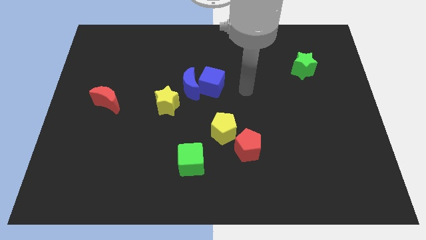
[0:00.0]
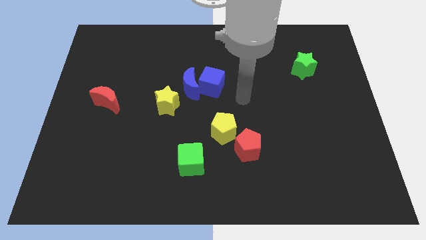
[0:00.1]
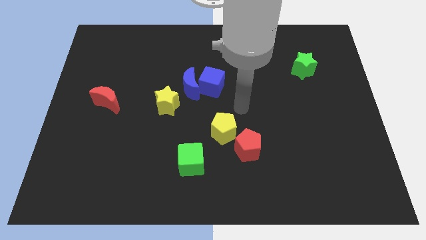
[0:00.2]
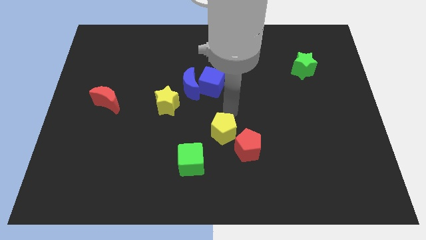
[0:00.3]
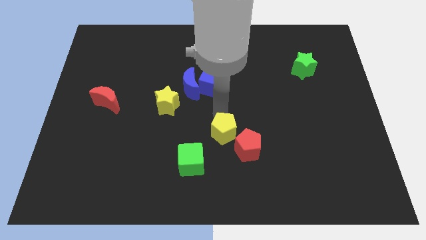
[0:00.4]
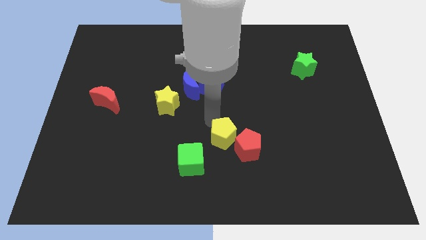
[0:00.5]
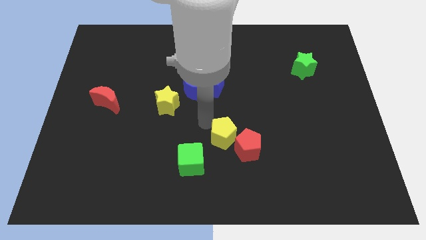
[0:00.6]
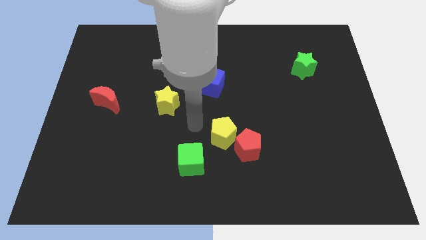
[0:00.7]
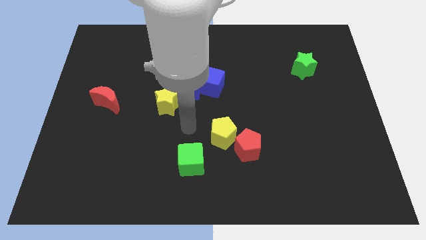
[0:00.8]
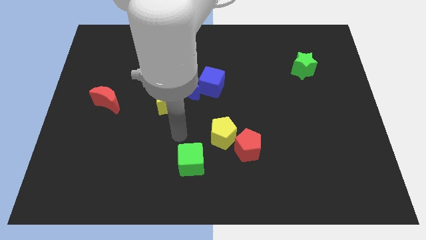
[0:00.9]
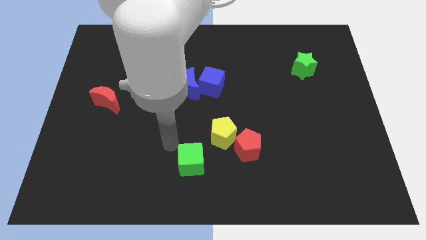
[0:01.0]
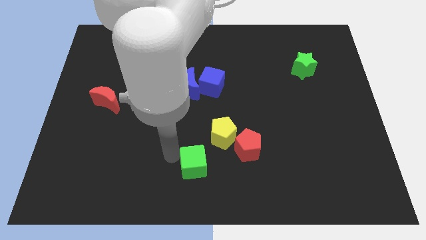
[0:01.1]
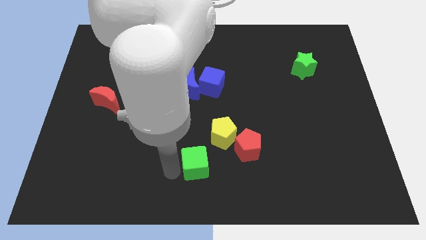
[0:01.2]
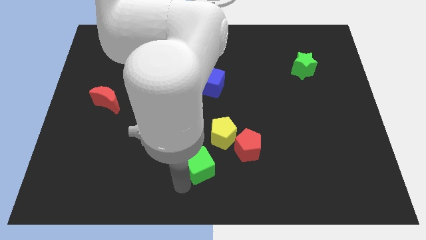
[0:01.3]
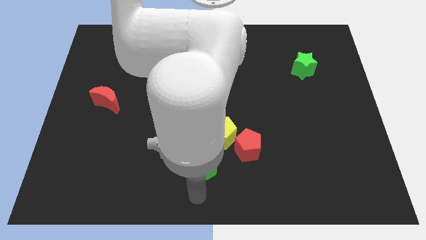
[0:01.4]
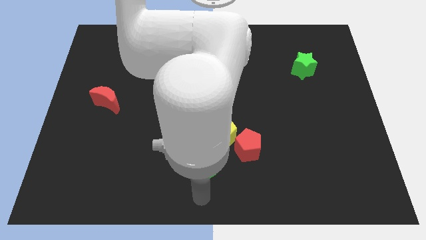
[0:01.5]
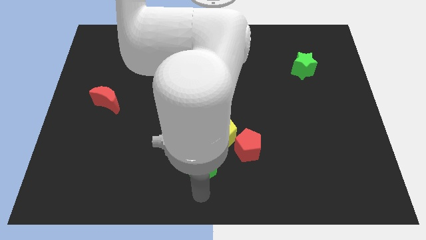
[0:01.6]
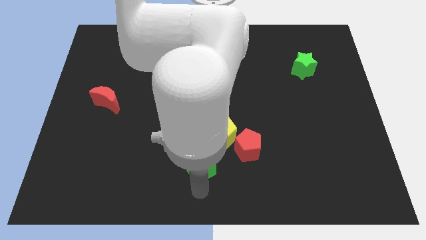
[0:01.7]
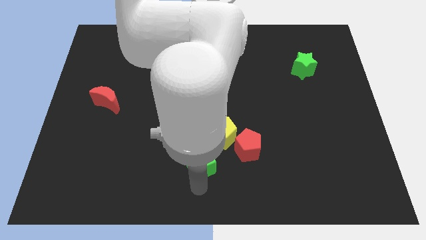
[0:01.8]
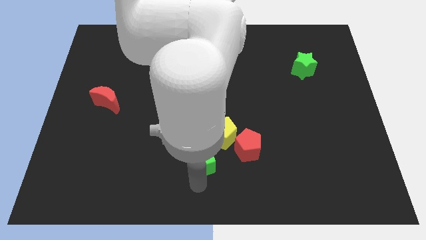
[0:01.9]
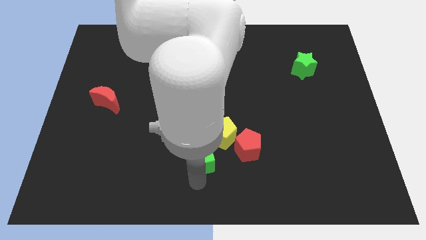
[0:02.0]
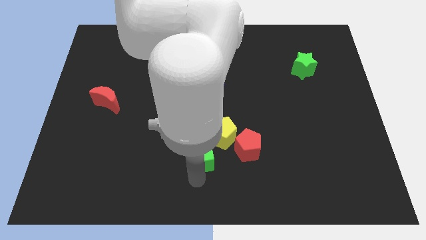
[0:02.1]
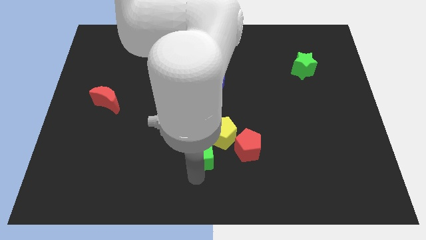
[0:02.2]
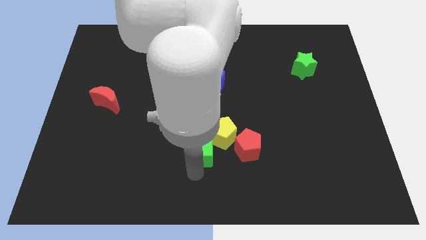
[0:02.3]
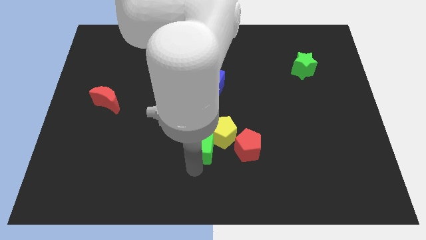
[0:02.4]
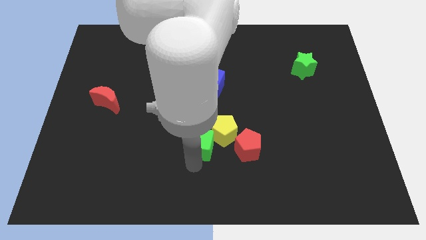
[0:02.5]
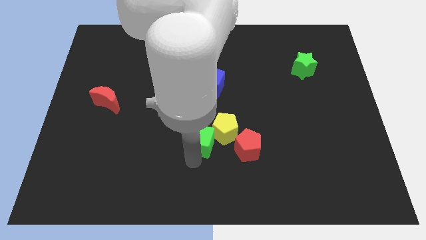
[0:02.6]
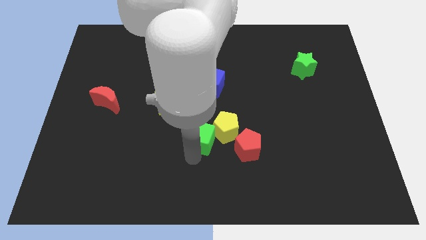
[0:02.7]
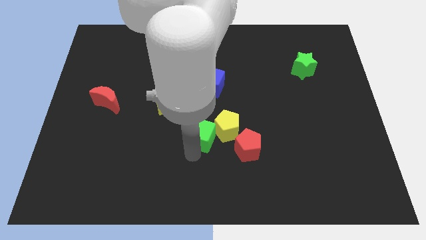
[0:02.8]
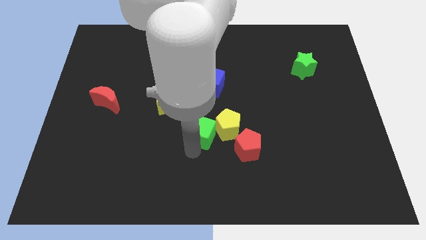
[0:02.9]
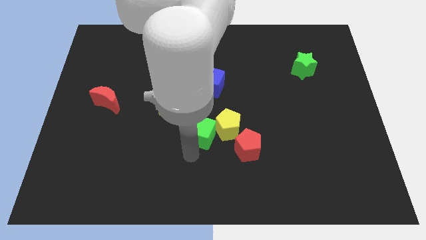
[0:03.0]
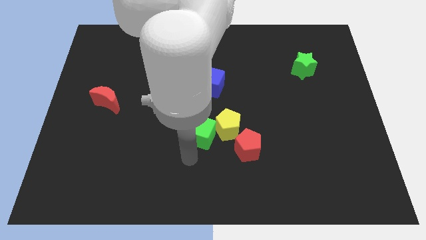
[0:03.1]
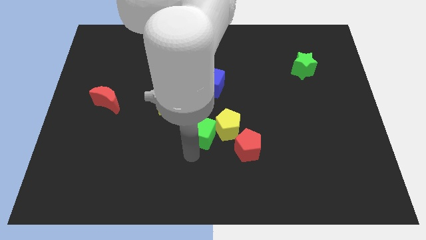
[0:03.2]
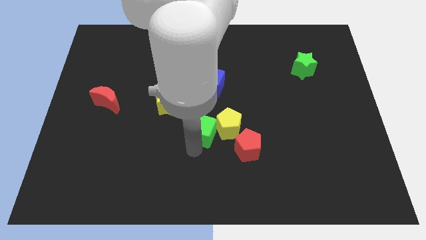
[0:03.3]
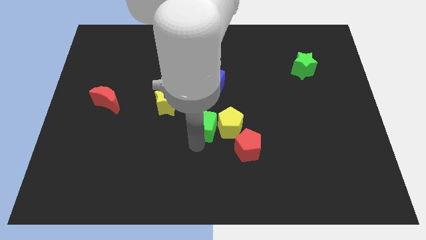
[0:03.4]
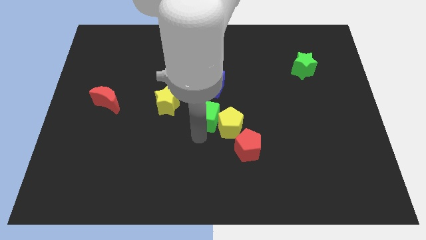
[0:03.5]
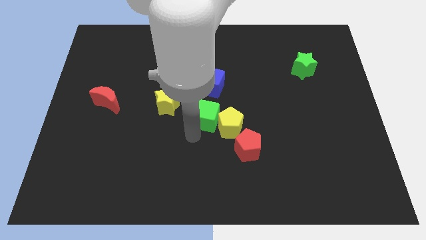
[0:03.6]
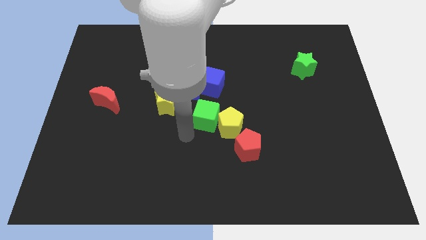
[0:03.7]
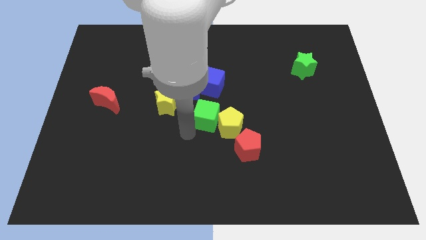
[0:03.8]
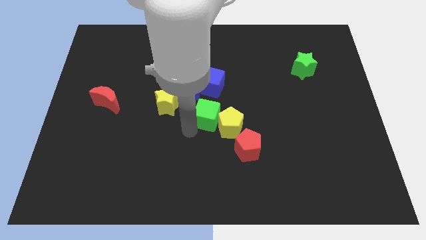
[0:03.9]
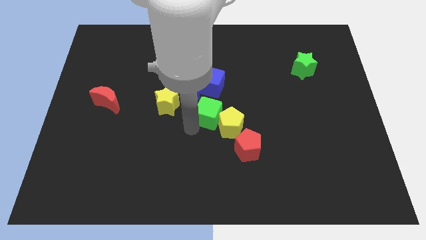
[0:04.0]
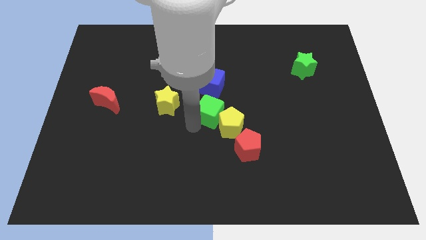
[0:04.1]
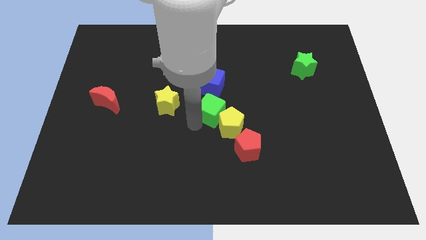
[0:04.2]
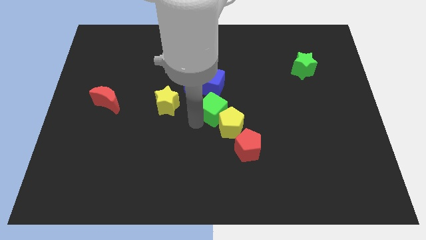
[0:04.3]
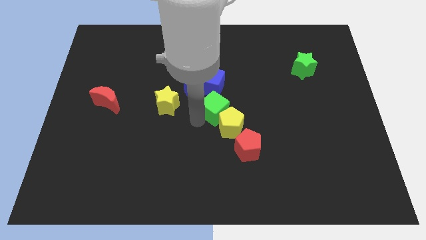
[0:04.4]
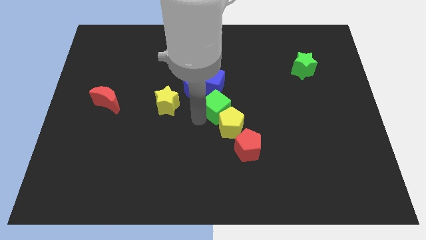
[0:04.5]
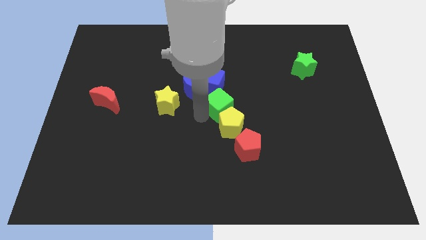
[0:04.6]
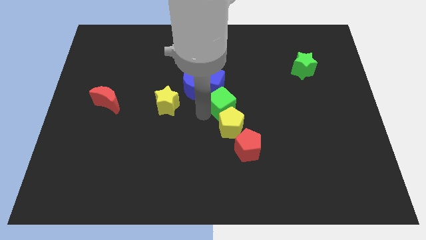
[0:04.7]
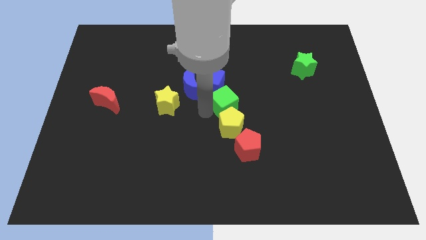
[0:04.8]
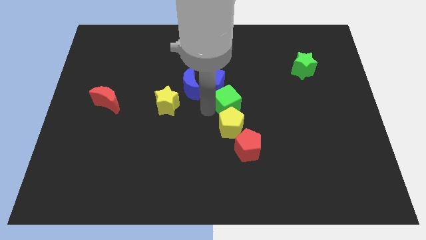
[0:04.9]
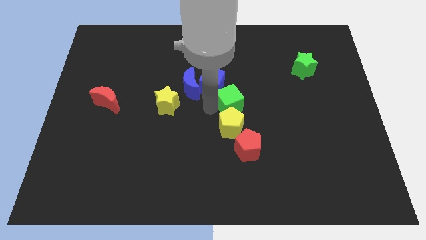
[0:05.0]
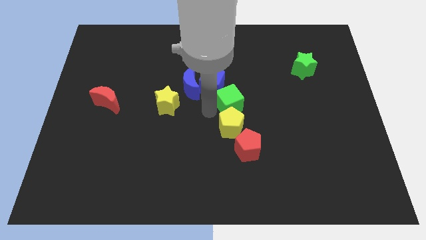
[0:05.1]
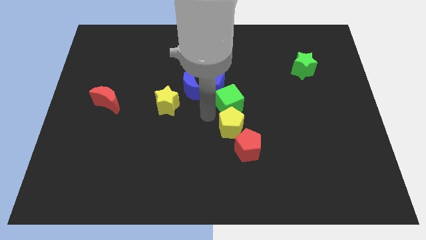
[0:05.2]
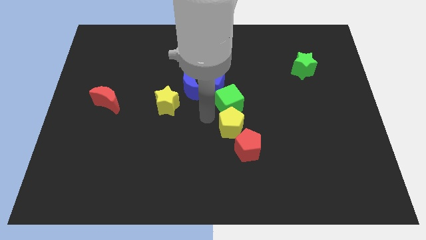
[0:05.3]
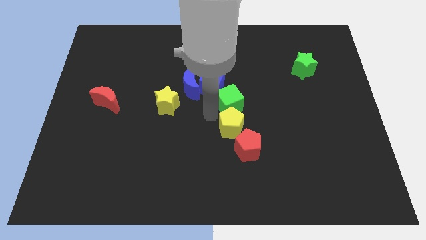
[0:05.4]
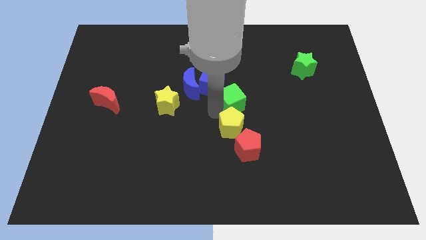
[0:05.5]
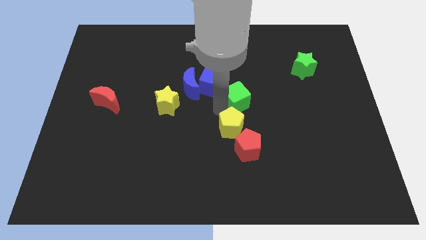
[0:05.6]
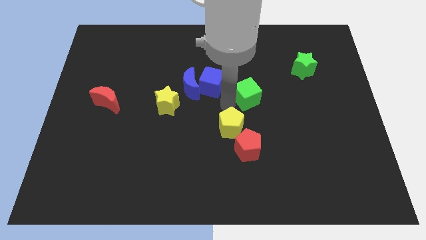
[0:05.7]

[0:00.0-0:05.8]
move the green cube upwards and then to the right

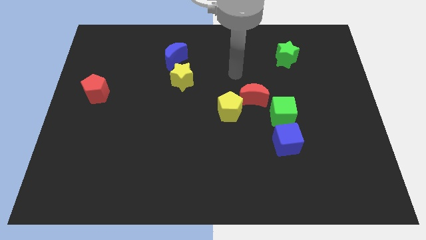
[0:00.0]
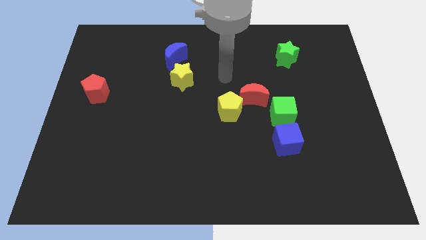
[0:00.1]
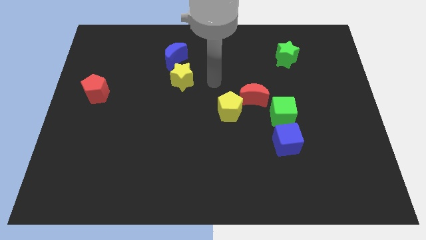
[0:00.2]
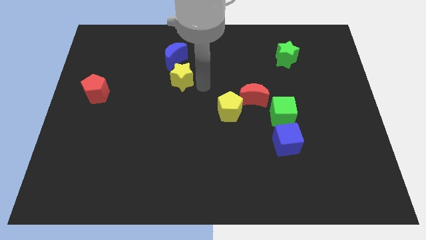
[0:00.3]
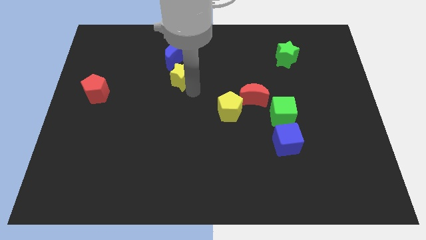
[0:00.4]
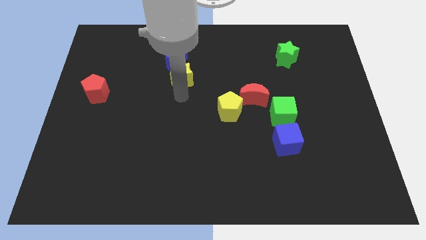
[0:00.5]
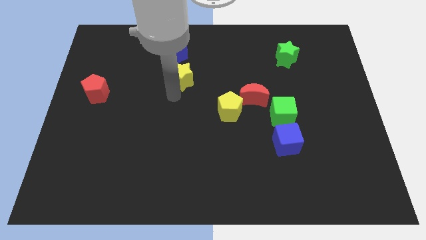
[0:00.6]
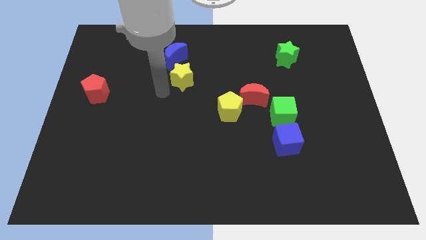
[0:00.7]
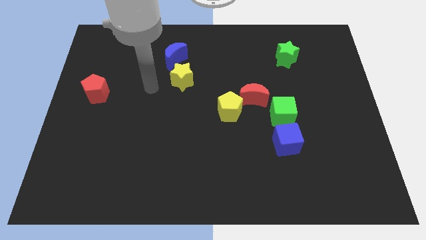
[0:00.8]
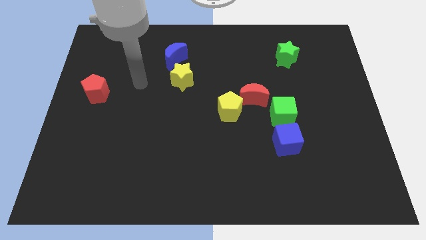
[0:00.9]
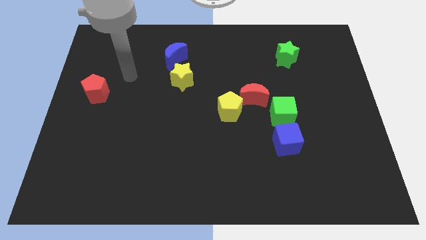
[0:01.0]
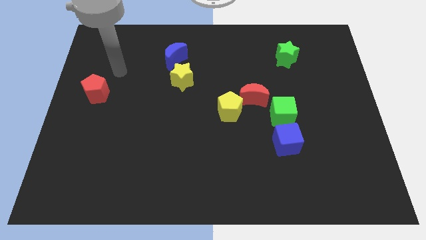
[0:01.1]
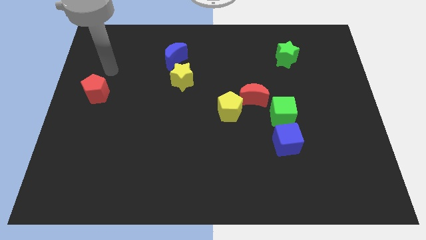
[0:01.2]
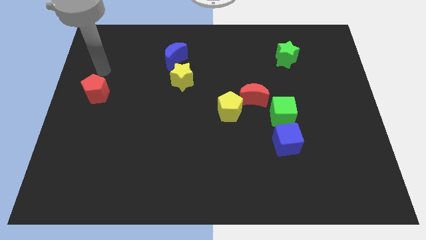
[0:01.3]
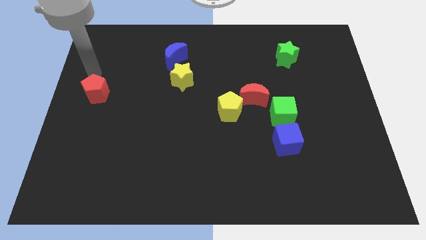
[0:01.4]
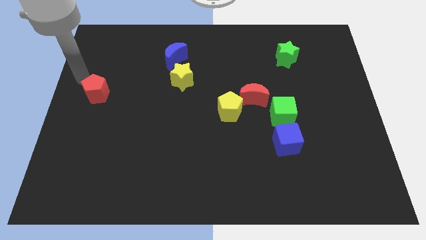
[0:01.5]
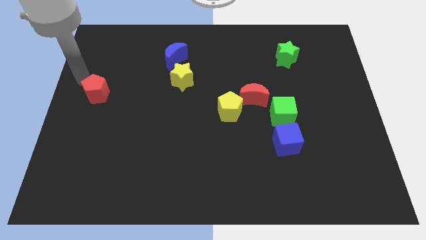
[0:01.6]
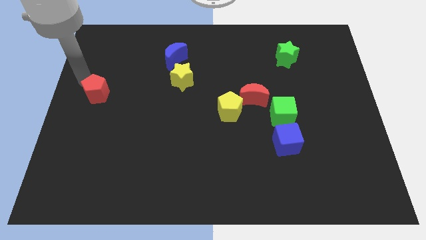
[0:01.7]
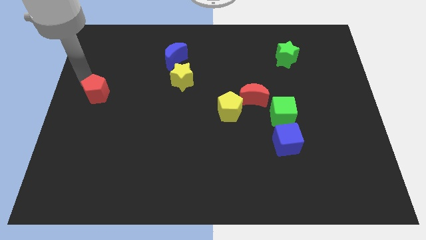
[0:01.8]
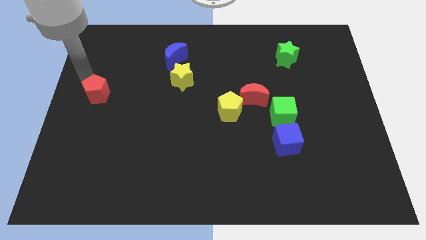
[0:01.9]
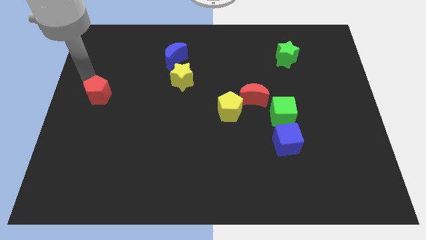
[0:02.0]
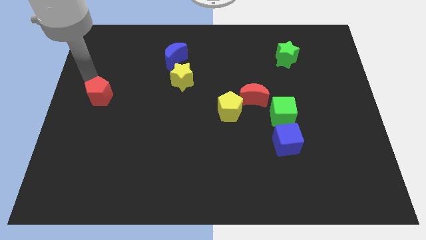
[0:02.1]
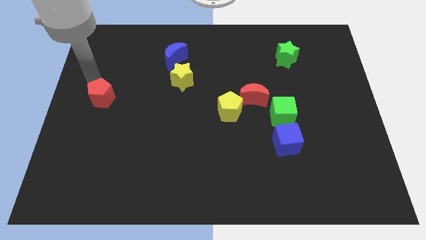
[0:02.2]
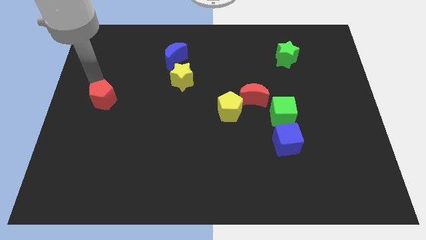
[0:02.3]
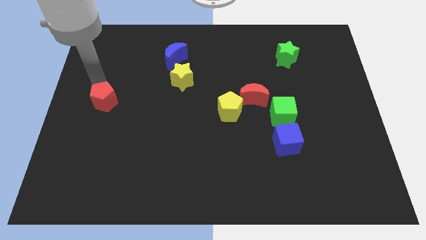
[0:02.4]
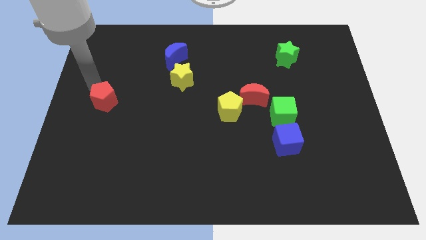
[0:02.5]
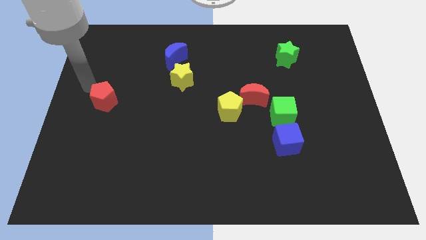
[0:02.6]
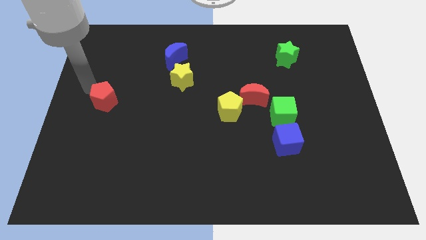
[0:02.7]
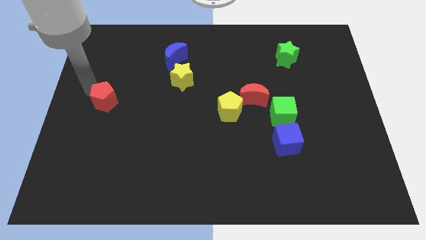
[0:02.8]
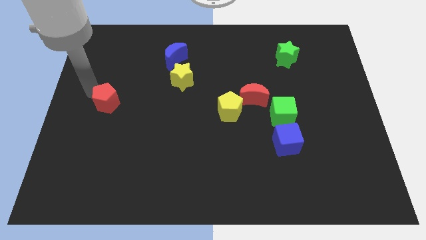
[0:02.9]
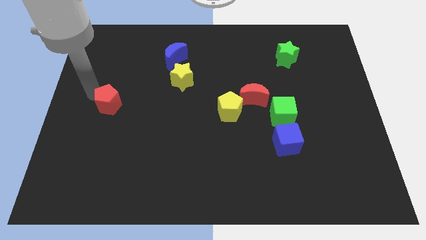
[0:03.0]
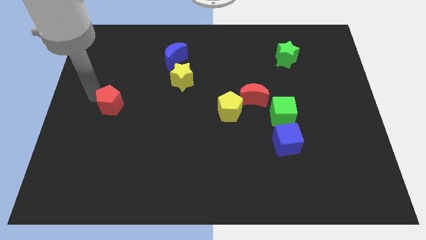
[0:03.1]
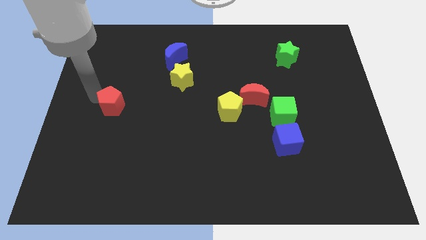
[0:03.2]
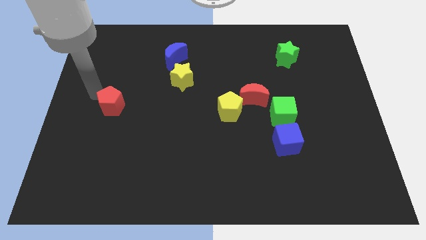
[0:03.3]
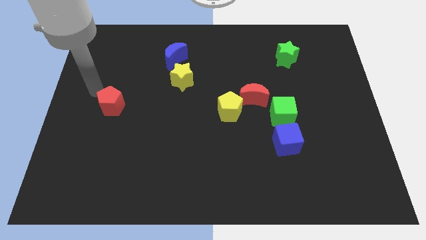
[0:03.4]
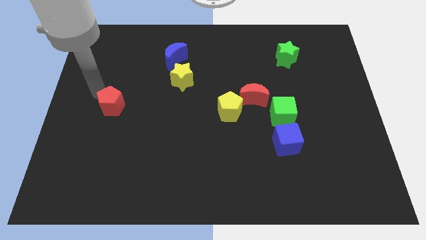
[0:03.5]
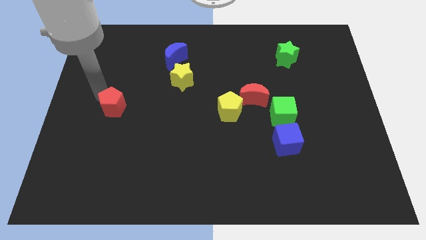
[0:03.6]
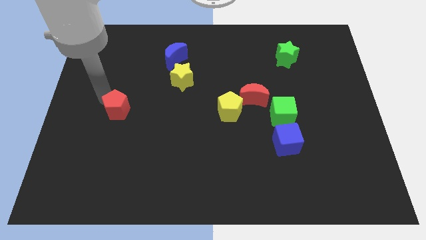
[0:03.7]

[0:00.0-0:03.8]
slightly slide the red pentagon downwards and to the right diagonally
